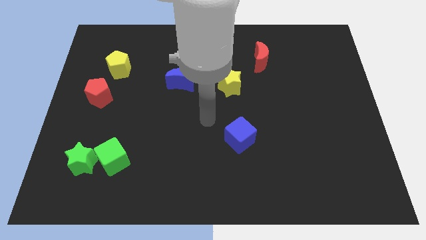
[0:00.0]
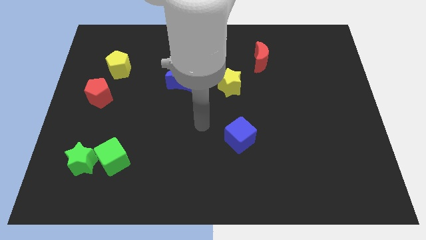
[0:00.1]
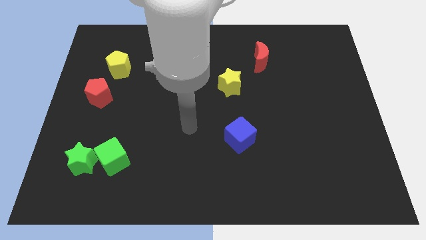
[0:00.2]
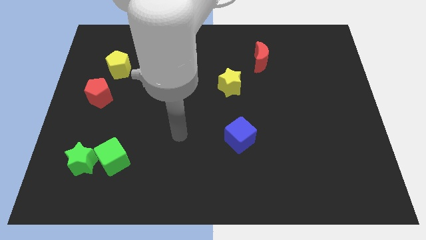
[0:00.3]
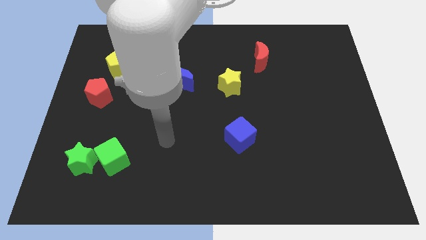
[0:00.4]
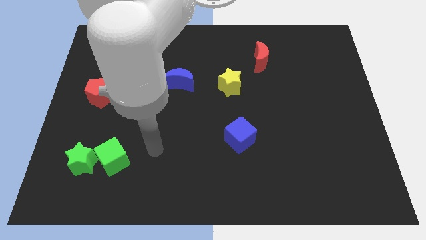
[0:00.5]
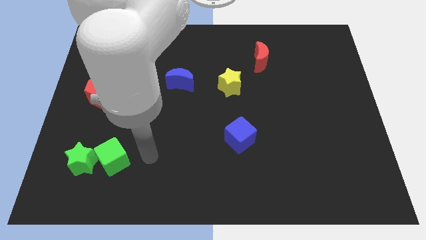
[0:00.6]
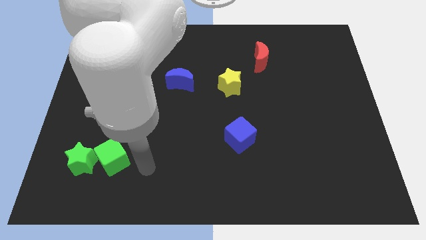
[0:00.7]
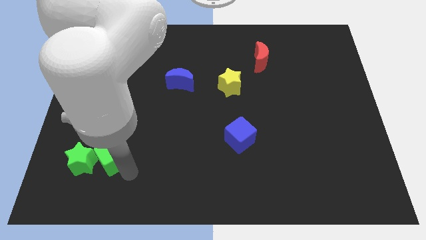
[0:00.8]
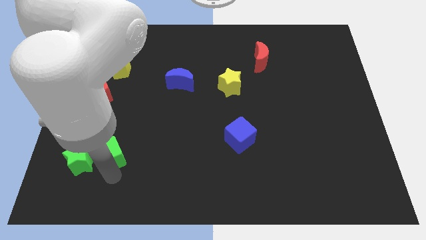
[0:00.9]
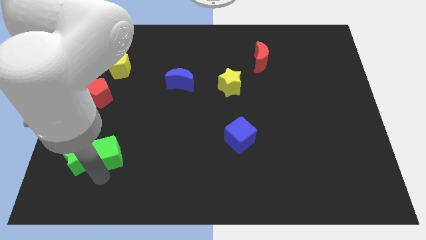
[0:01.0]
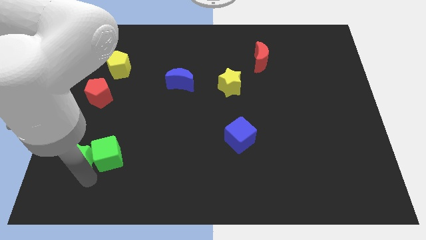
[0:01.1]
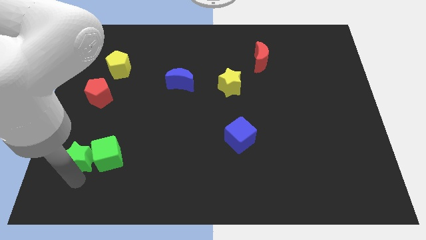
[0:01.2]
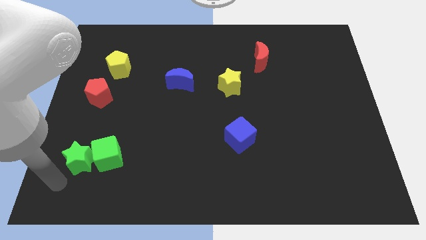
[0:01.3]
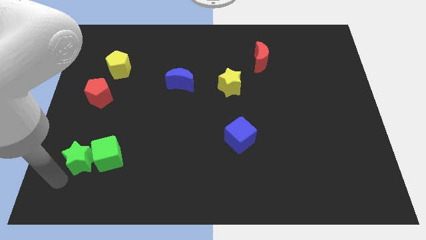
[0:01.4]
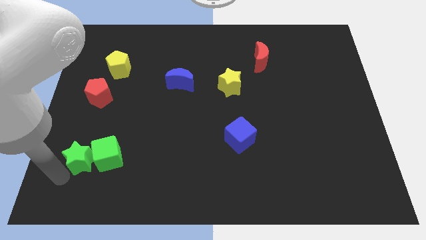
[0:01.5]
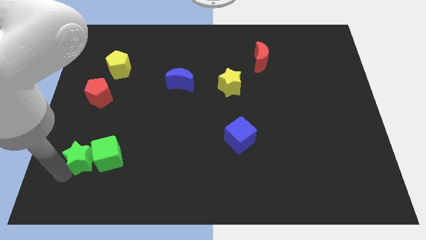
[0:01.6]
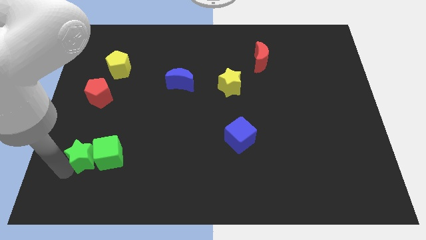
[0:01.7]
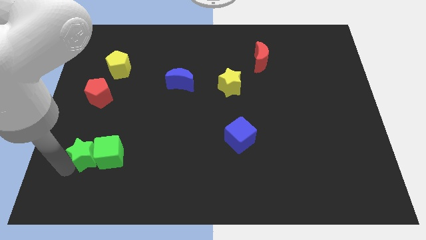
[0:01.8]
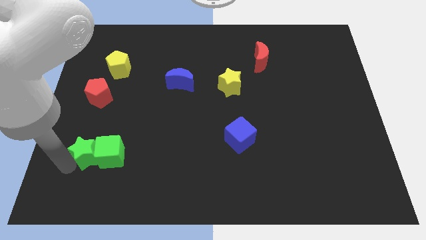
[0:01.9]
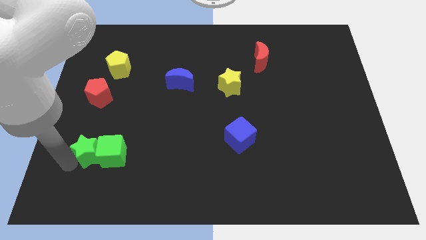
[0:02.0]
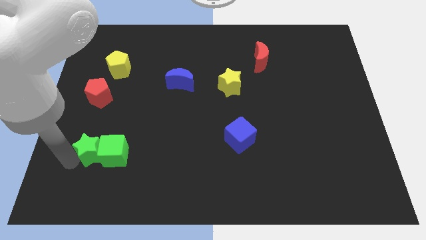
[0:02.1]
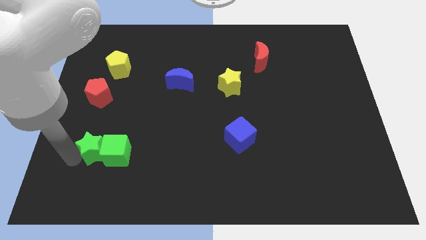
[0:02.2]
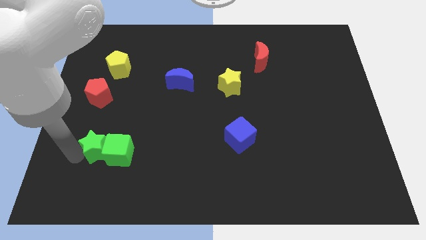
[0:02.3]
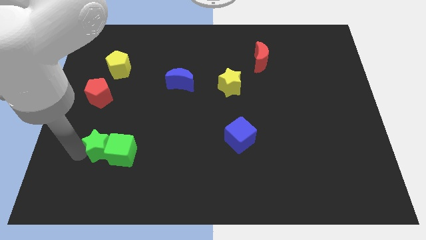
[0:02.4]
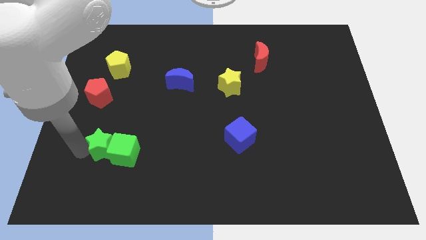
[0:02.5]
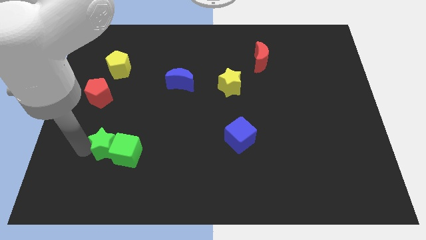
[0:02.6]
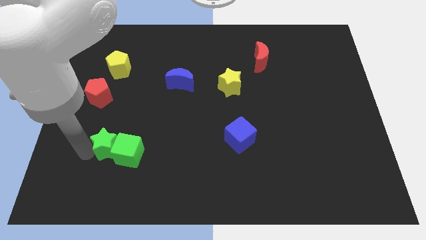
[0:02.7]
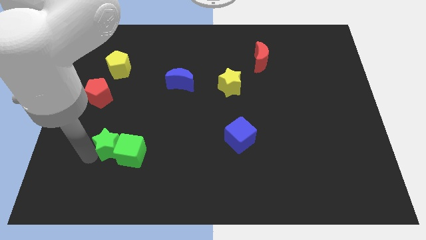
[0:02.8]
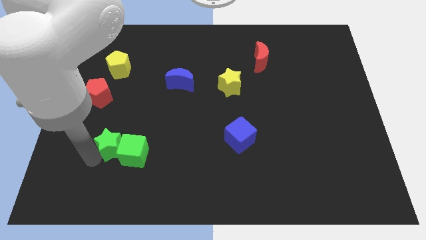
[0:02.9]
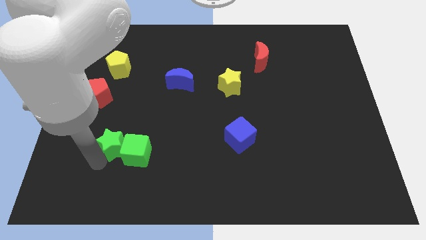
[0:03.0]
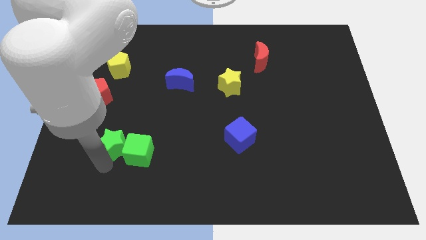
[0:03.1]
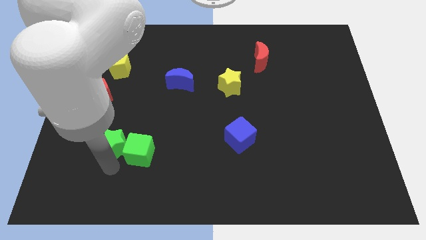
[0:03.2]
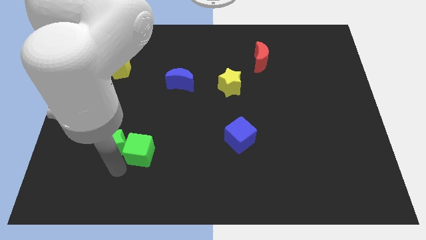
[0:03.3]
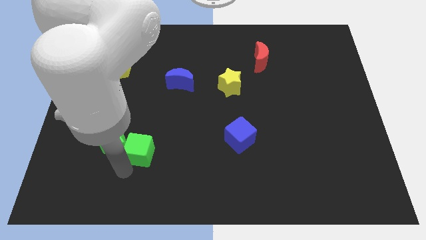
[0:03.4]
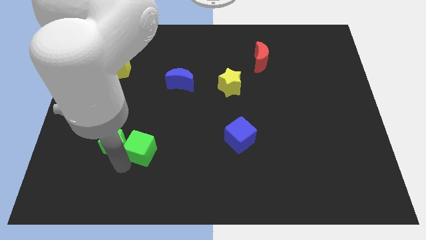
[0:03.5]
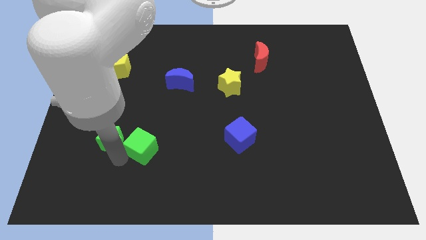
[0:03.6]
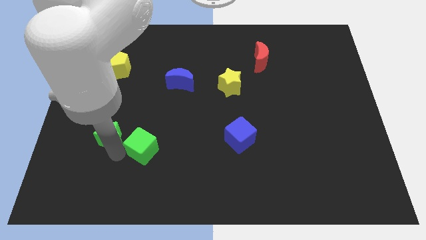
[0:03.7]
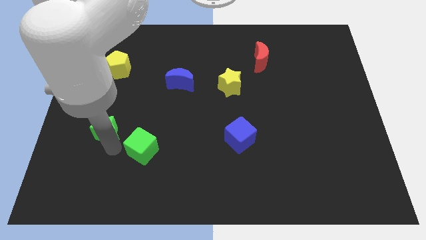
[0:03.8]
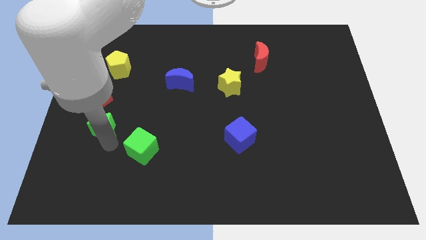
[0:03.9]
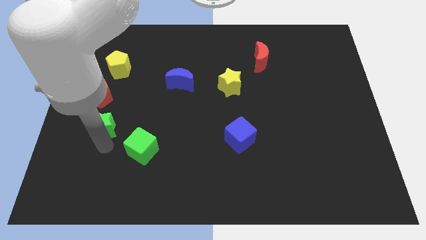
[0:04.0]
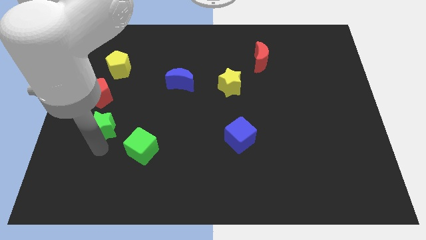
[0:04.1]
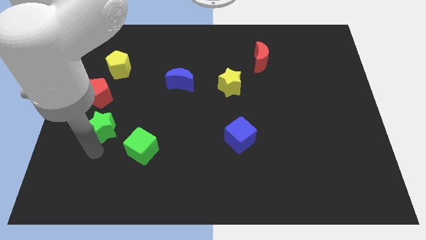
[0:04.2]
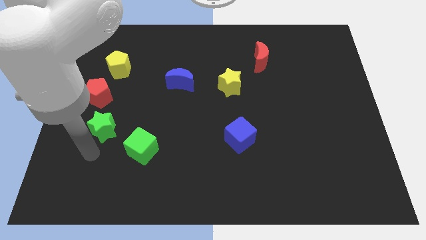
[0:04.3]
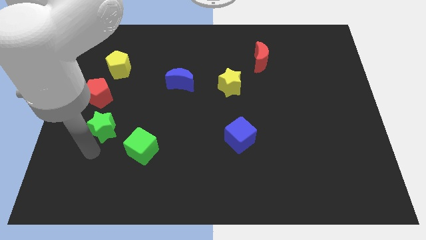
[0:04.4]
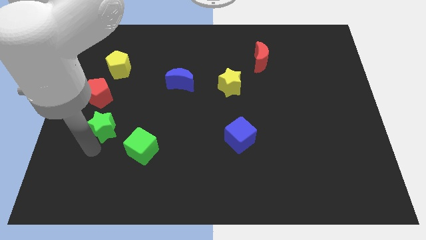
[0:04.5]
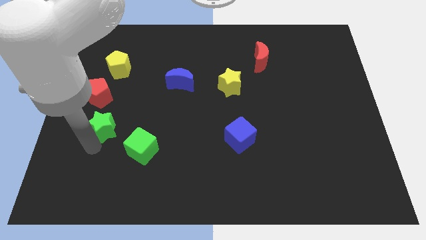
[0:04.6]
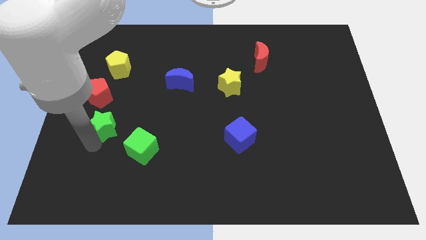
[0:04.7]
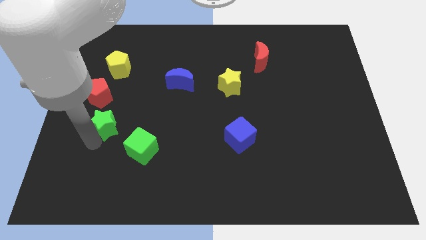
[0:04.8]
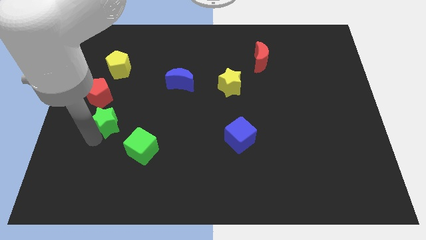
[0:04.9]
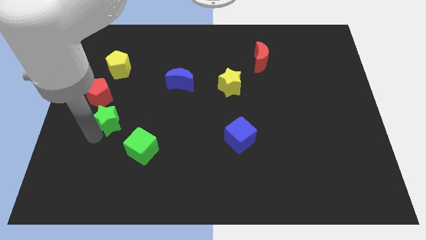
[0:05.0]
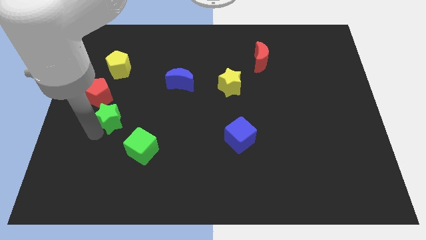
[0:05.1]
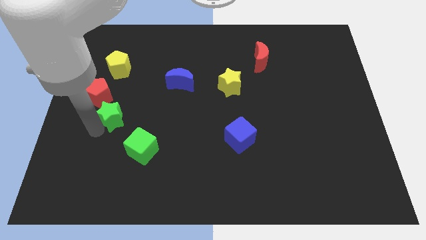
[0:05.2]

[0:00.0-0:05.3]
put the green star below the yellow pentagon

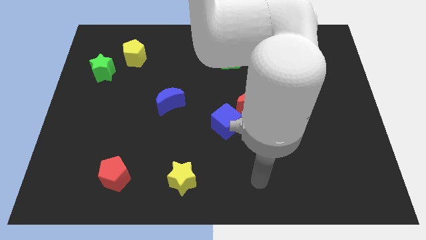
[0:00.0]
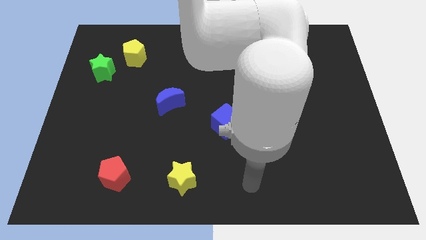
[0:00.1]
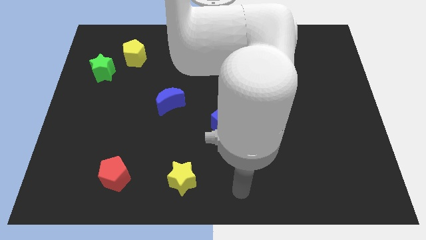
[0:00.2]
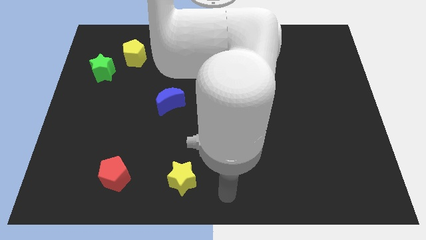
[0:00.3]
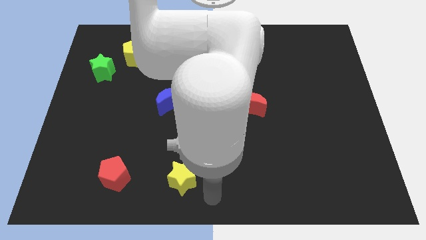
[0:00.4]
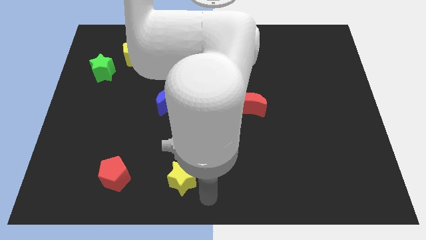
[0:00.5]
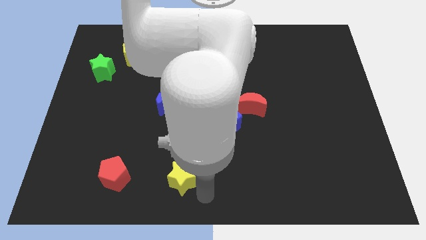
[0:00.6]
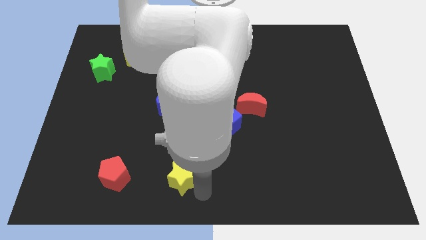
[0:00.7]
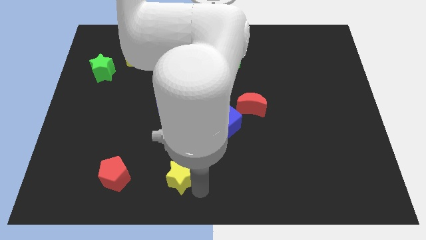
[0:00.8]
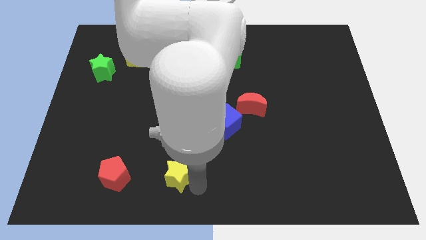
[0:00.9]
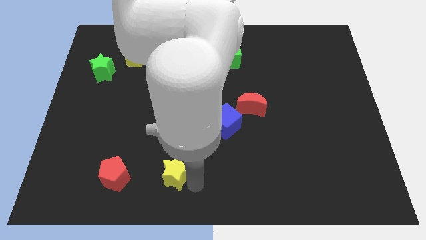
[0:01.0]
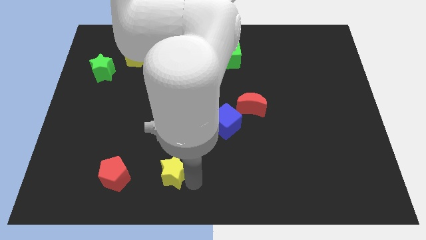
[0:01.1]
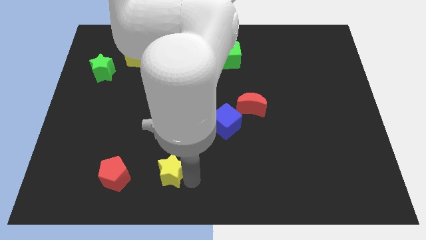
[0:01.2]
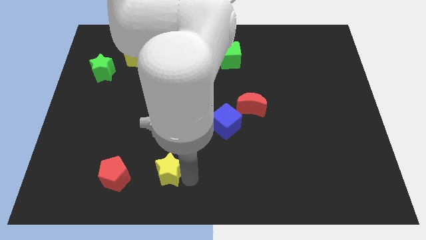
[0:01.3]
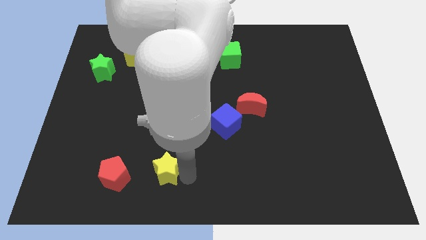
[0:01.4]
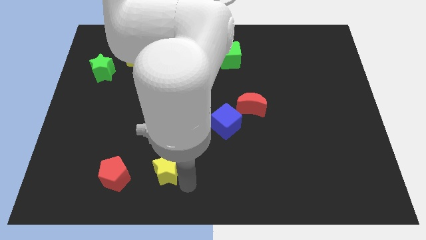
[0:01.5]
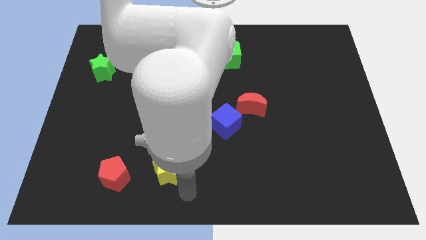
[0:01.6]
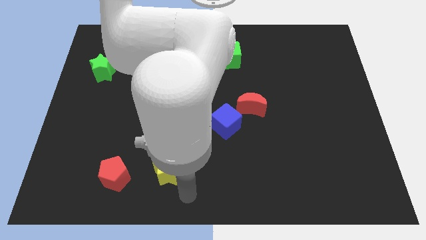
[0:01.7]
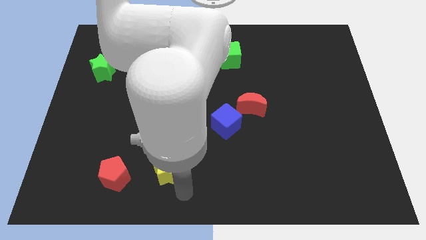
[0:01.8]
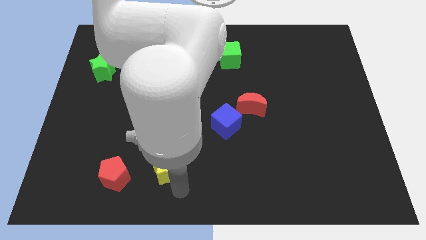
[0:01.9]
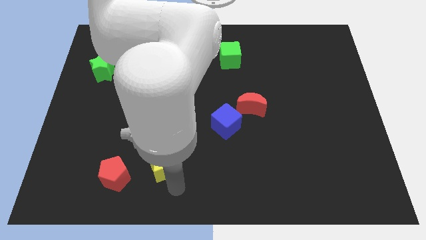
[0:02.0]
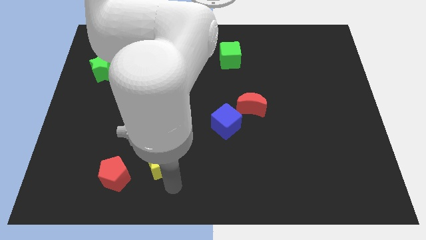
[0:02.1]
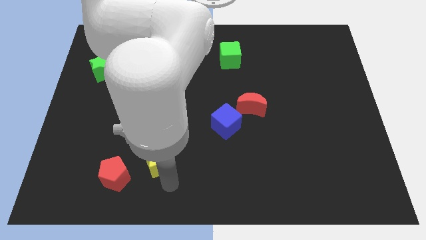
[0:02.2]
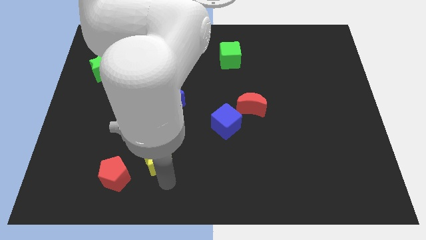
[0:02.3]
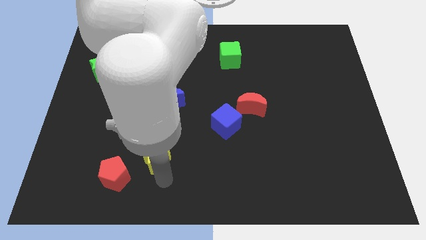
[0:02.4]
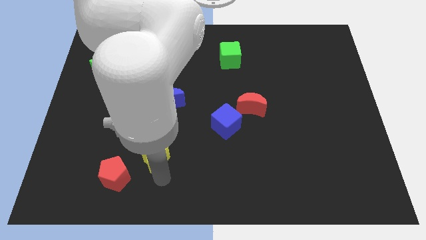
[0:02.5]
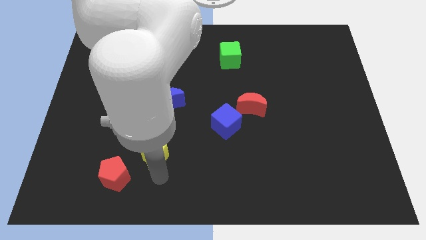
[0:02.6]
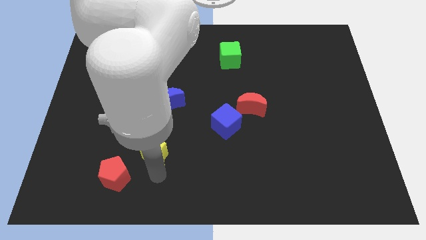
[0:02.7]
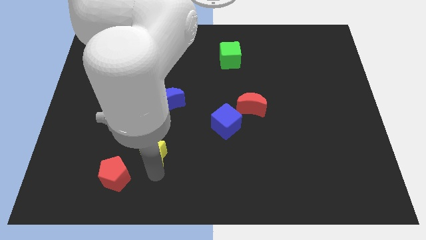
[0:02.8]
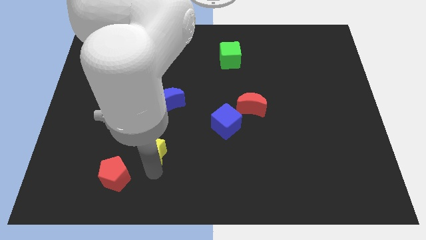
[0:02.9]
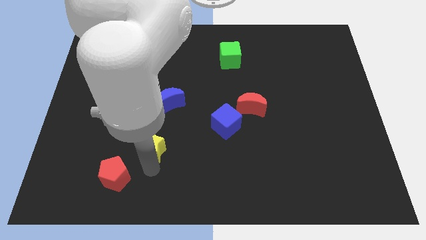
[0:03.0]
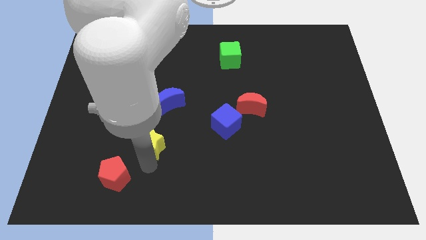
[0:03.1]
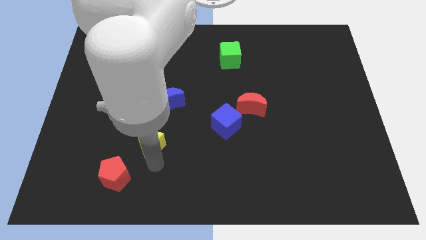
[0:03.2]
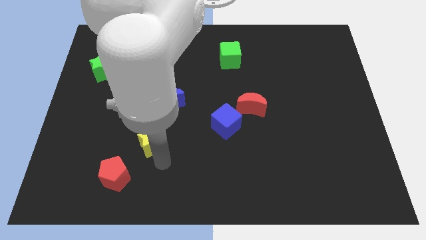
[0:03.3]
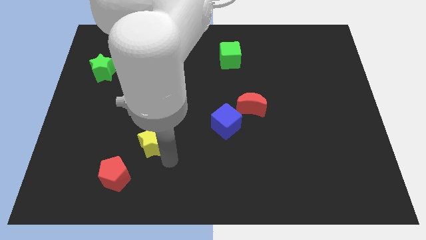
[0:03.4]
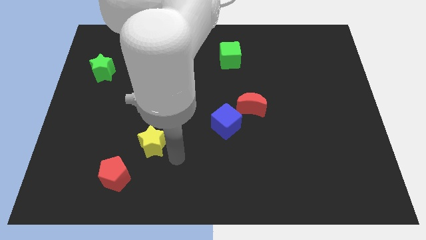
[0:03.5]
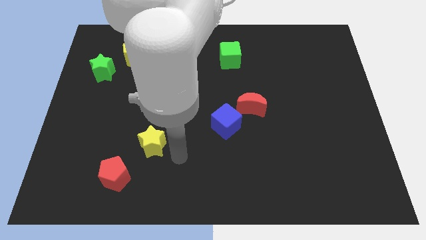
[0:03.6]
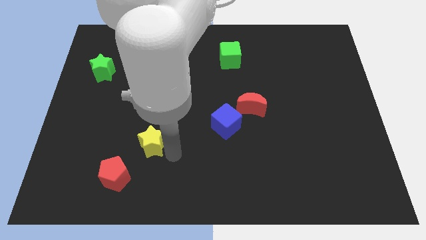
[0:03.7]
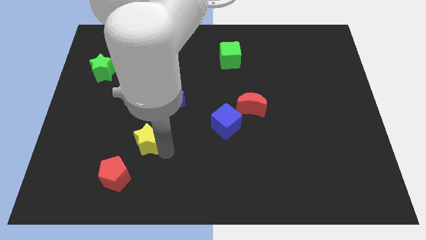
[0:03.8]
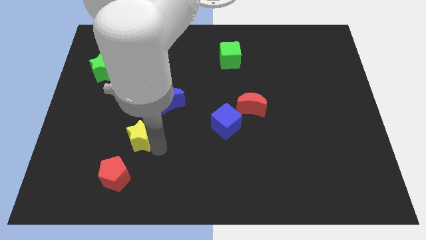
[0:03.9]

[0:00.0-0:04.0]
push the yellow star to the top side of the red pentagon
